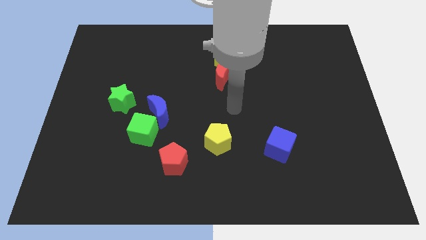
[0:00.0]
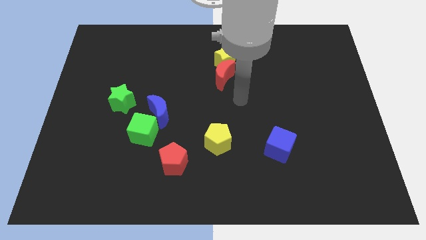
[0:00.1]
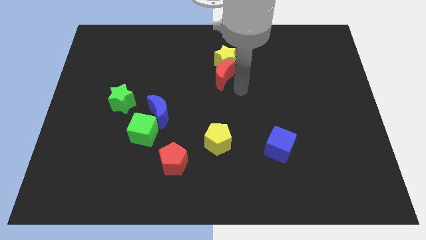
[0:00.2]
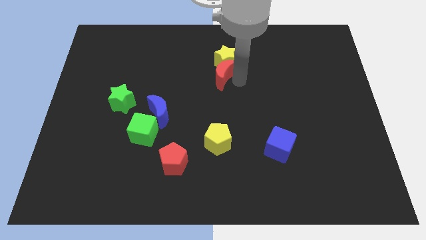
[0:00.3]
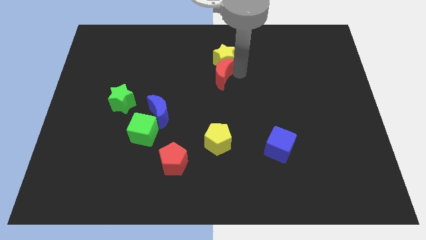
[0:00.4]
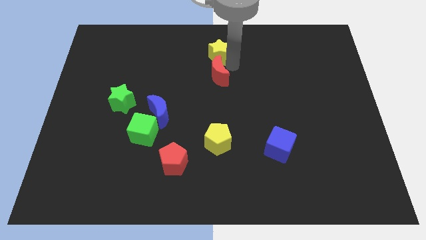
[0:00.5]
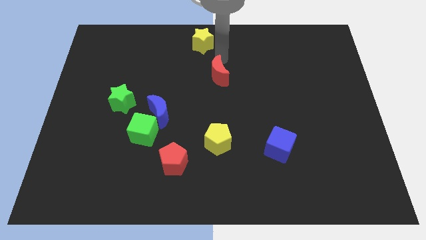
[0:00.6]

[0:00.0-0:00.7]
pull the red moon apart from the yellow star

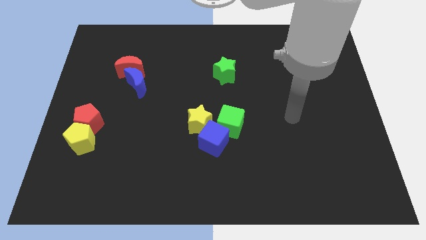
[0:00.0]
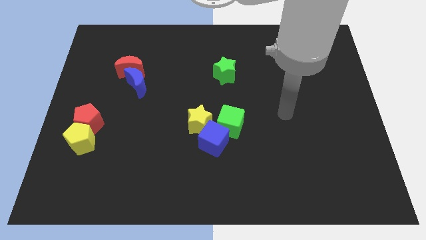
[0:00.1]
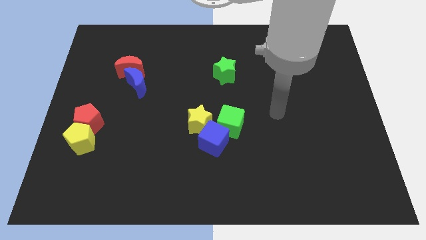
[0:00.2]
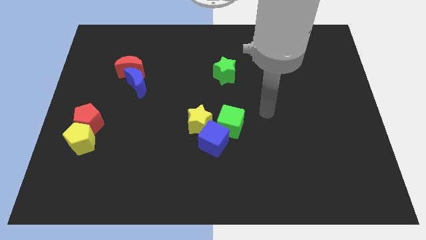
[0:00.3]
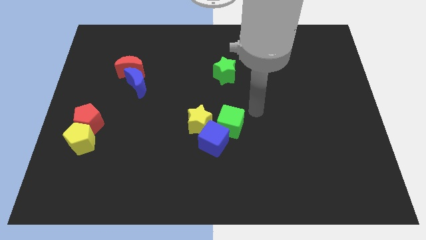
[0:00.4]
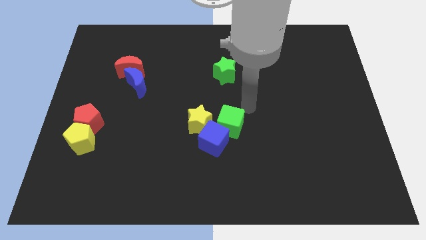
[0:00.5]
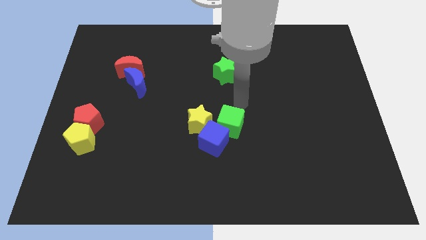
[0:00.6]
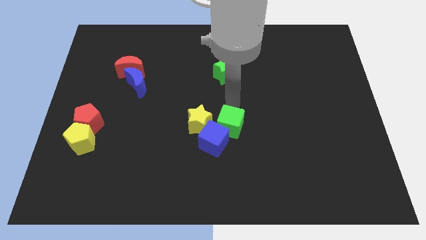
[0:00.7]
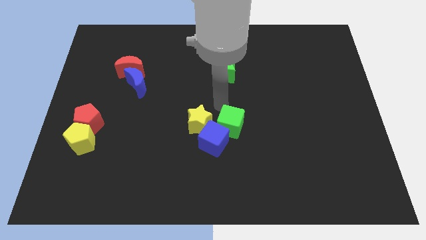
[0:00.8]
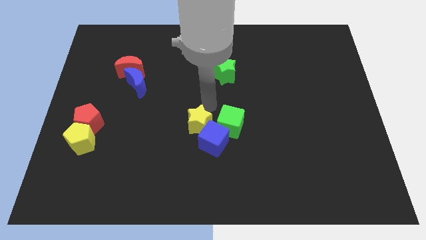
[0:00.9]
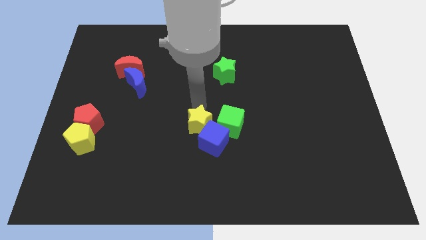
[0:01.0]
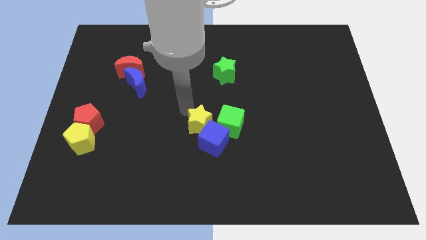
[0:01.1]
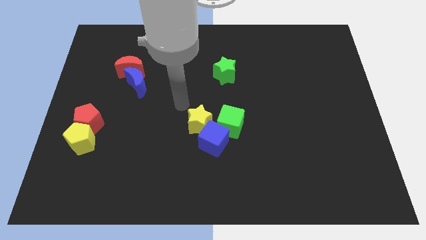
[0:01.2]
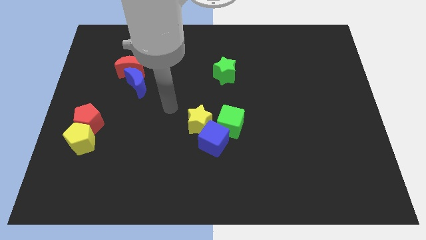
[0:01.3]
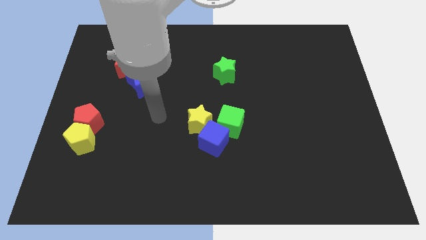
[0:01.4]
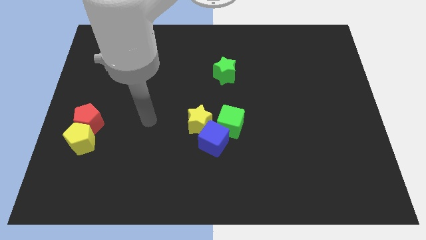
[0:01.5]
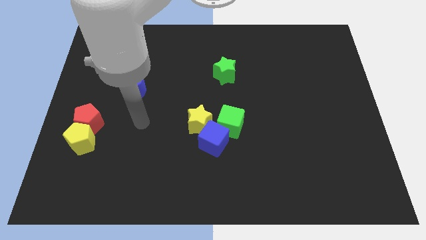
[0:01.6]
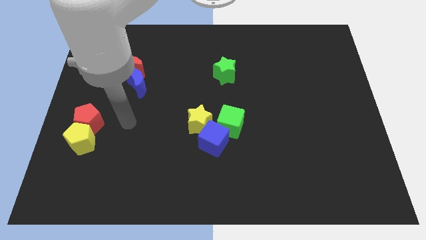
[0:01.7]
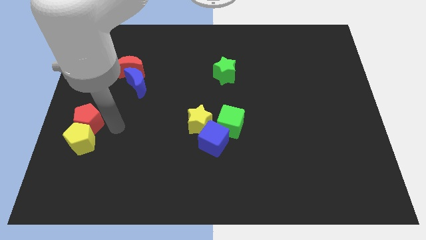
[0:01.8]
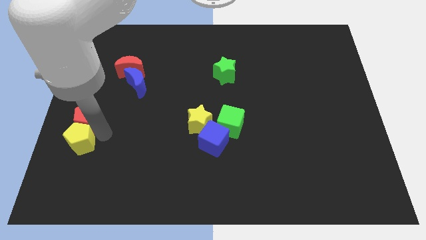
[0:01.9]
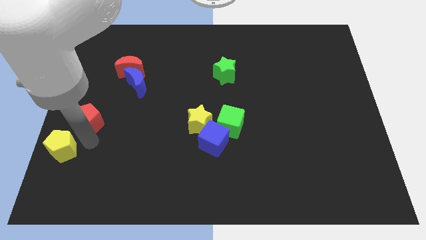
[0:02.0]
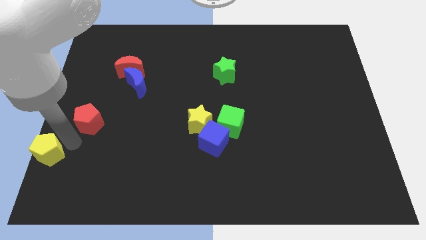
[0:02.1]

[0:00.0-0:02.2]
separate the red pentagon from the yellow pentagon

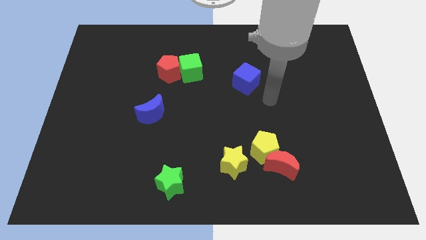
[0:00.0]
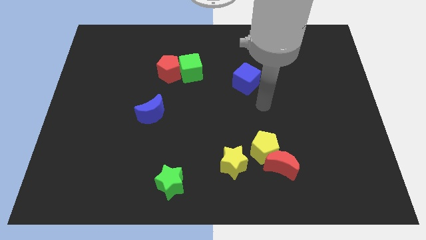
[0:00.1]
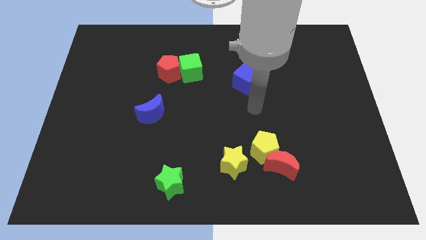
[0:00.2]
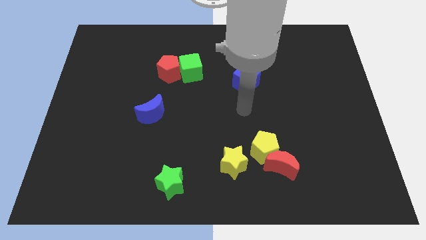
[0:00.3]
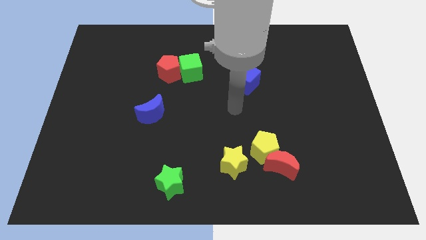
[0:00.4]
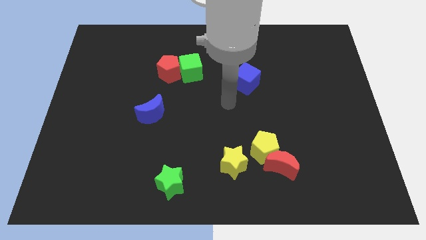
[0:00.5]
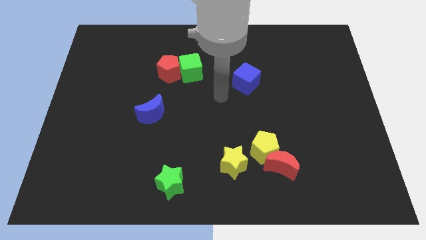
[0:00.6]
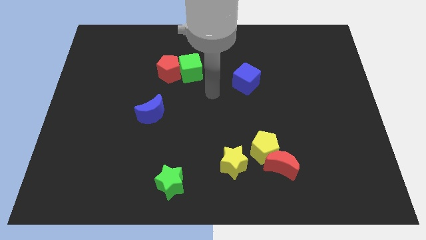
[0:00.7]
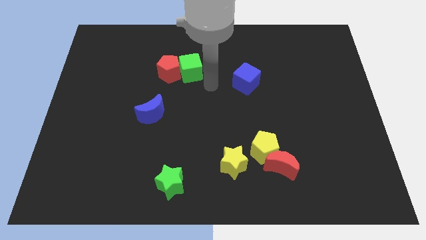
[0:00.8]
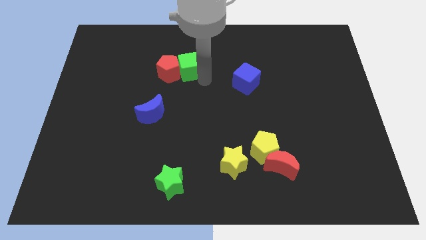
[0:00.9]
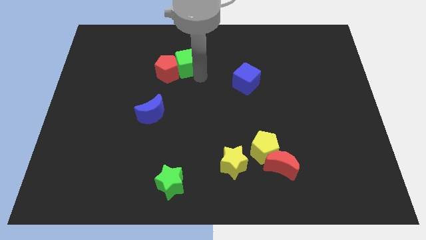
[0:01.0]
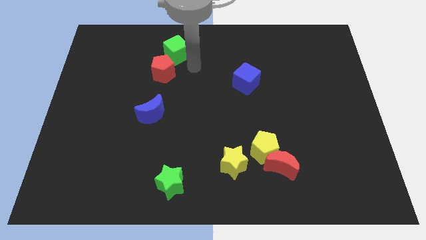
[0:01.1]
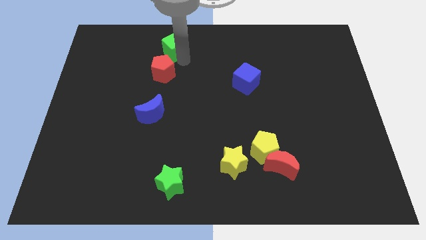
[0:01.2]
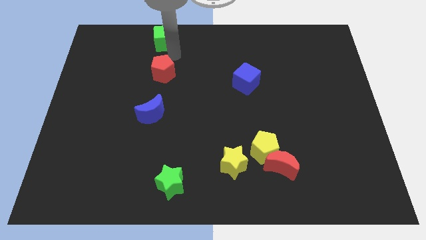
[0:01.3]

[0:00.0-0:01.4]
separate the red pentagon from the green cube

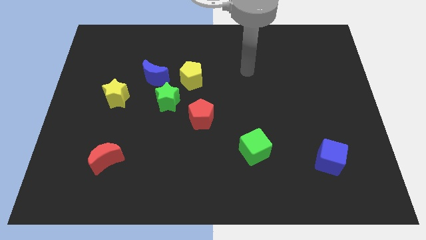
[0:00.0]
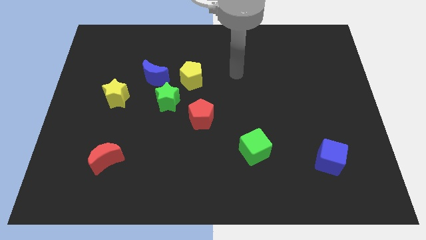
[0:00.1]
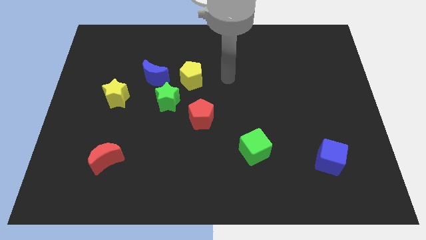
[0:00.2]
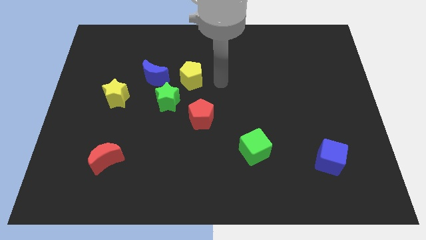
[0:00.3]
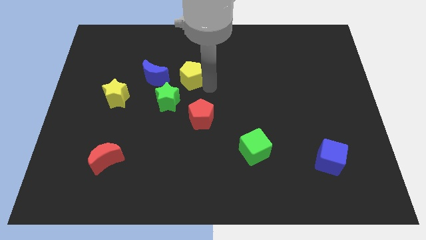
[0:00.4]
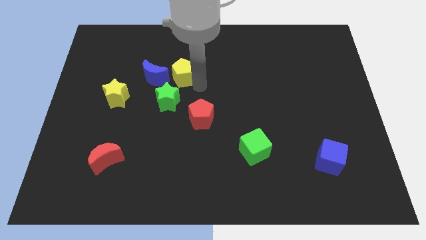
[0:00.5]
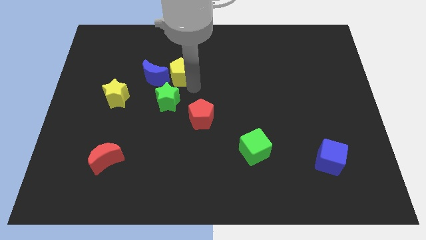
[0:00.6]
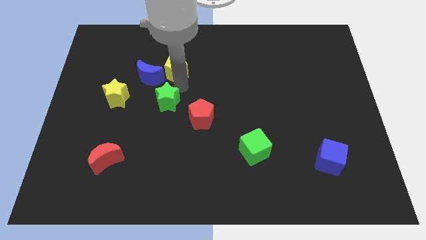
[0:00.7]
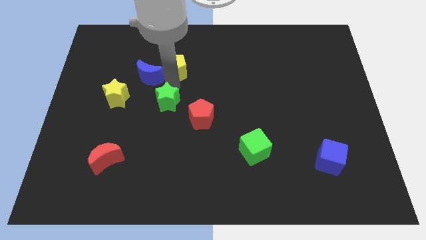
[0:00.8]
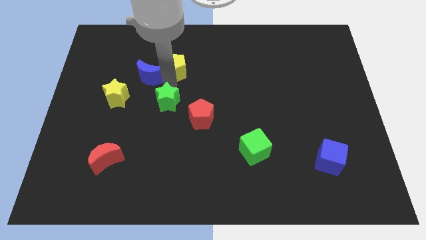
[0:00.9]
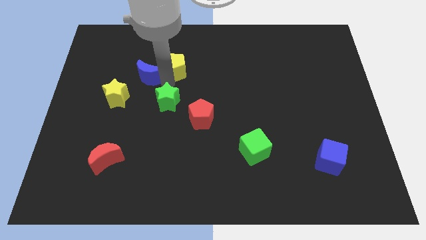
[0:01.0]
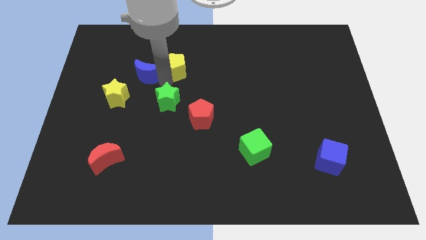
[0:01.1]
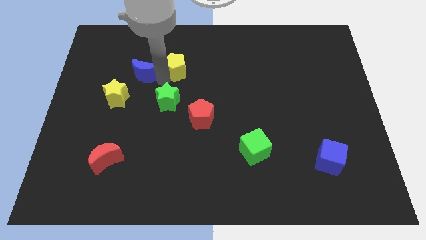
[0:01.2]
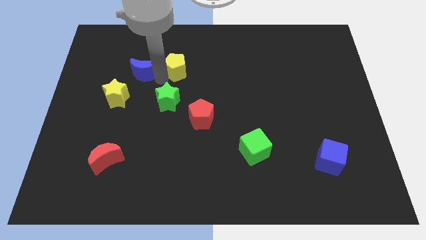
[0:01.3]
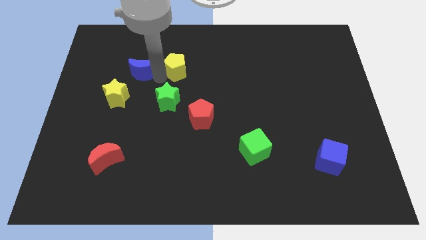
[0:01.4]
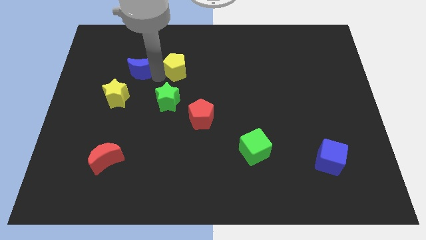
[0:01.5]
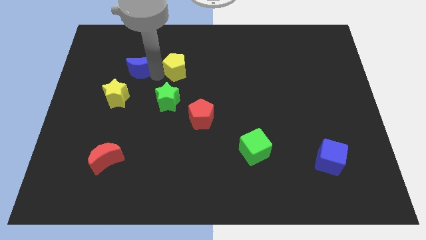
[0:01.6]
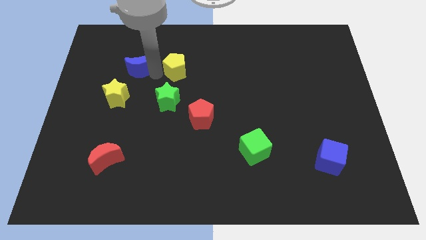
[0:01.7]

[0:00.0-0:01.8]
pull the blue moon apart from the green star and yellow pentagon

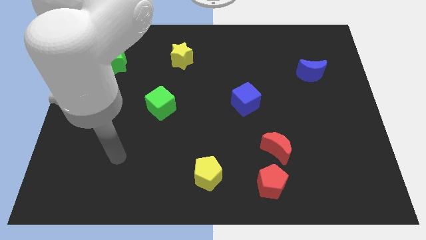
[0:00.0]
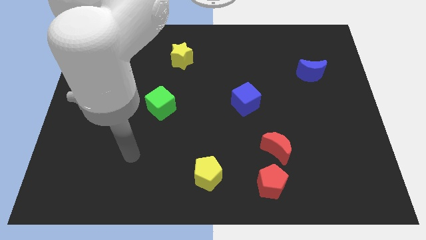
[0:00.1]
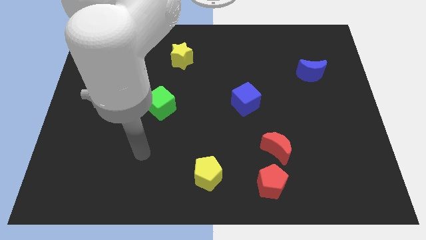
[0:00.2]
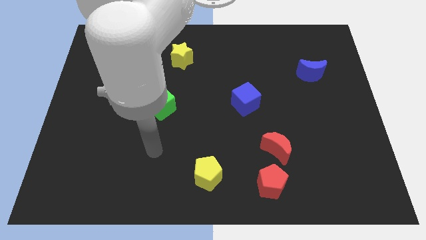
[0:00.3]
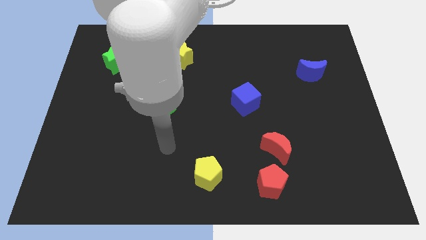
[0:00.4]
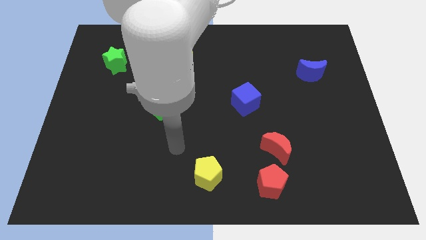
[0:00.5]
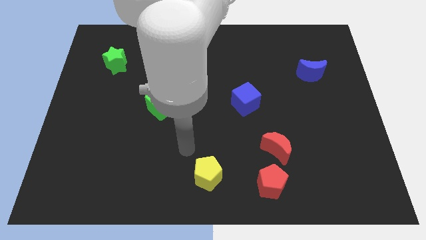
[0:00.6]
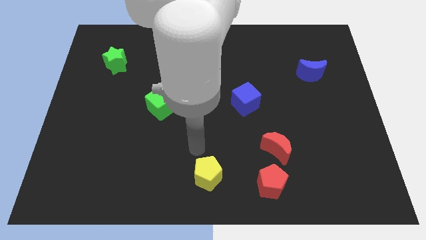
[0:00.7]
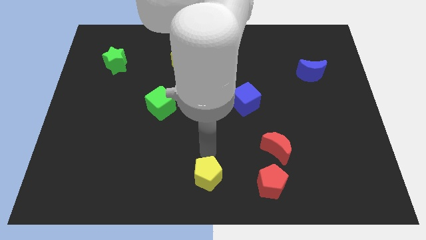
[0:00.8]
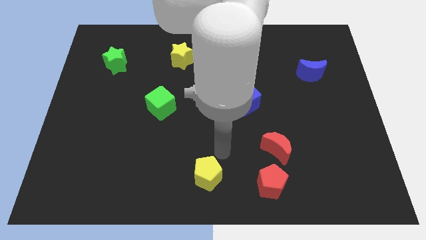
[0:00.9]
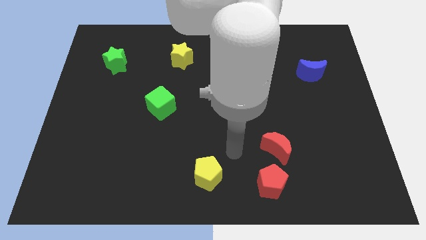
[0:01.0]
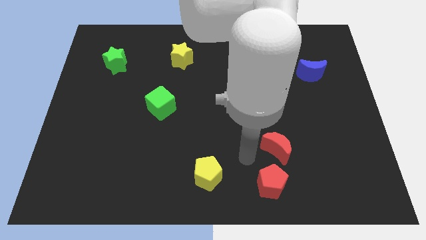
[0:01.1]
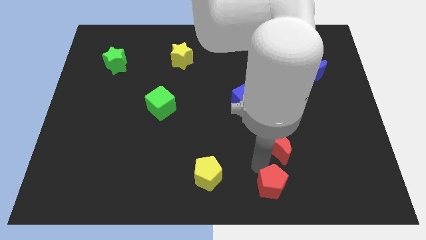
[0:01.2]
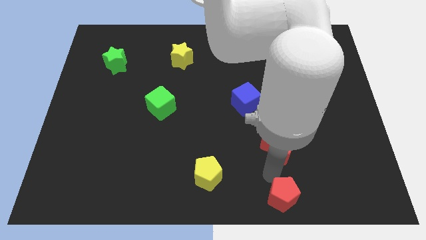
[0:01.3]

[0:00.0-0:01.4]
separate the red moon from the red pentagon

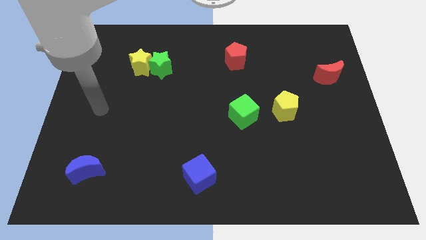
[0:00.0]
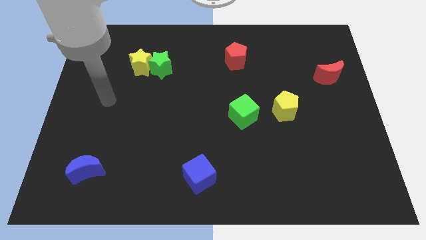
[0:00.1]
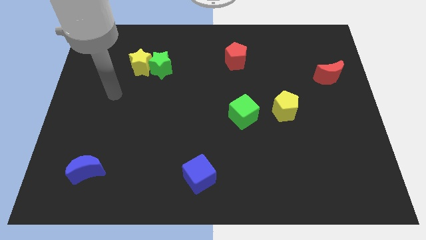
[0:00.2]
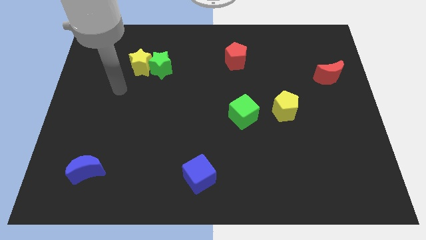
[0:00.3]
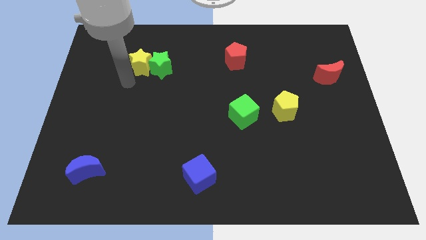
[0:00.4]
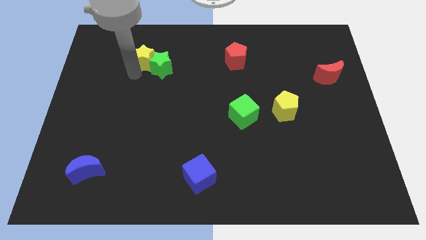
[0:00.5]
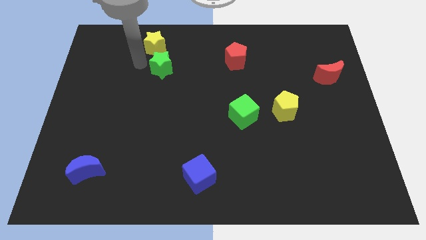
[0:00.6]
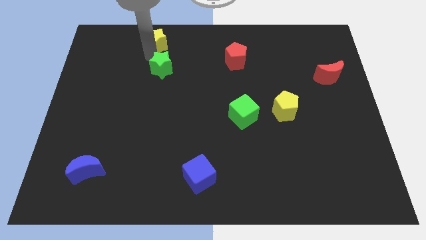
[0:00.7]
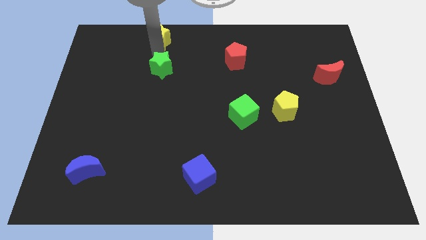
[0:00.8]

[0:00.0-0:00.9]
separate the green star from the yellow star

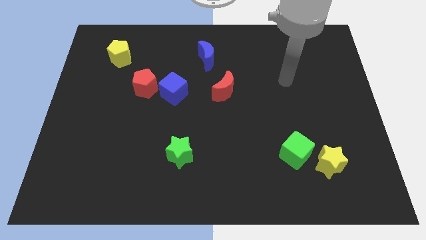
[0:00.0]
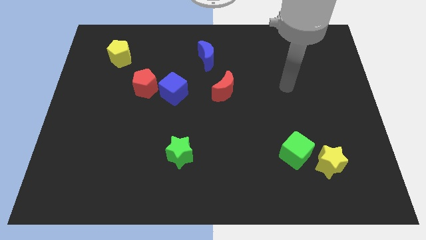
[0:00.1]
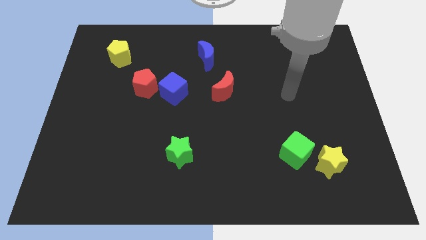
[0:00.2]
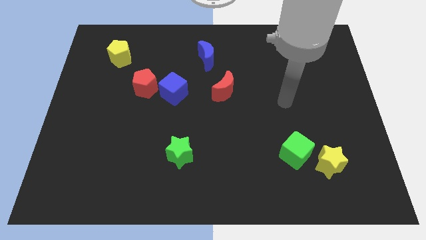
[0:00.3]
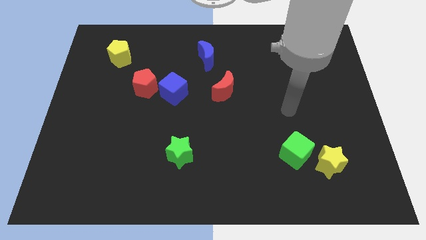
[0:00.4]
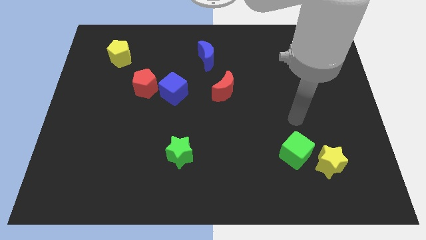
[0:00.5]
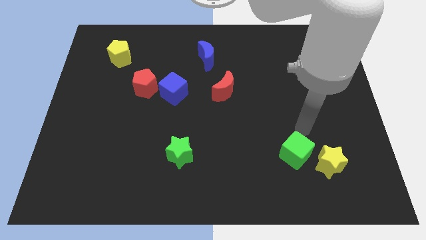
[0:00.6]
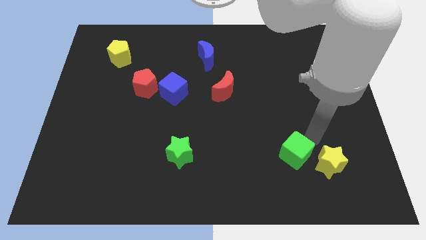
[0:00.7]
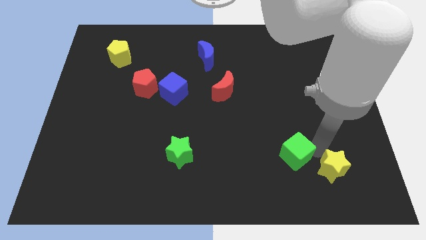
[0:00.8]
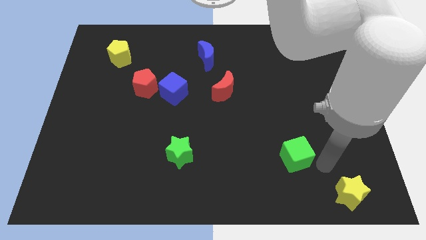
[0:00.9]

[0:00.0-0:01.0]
move the green cube away from the yellow star
